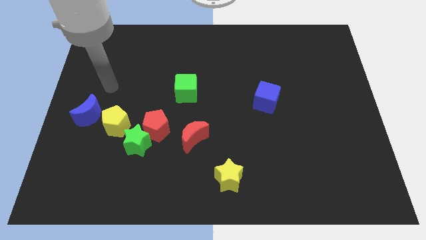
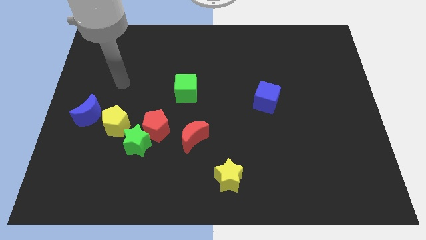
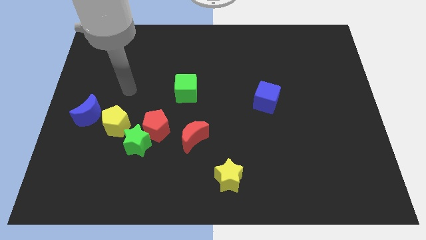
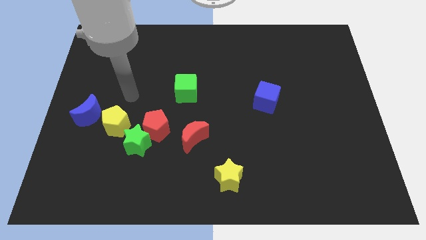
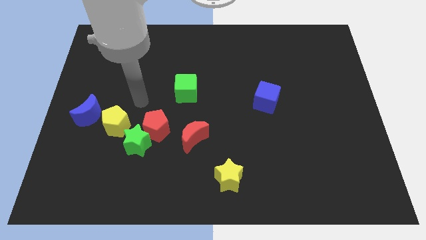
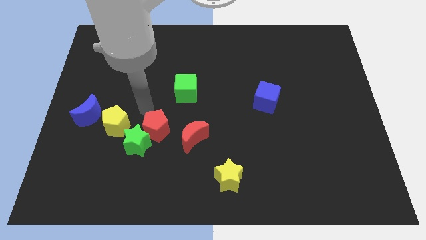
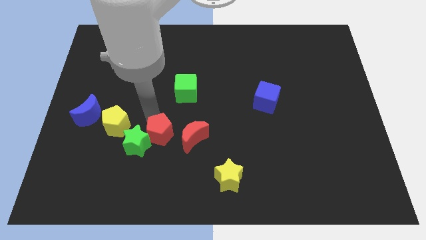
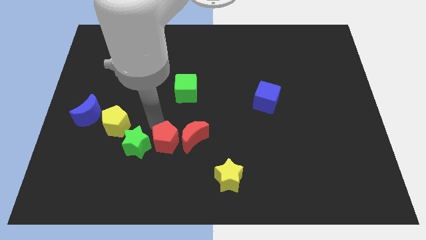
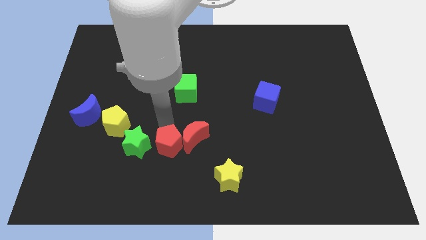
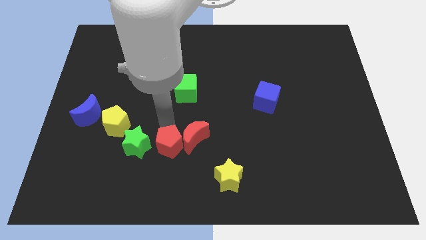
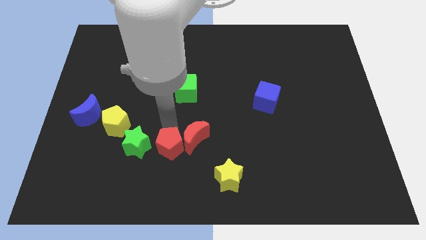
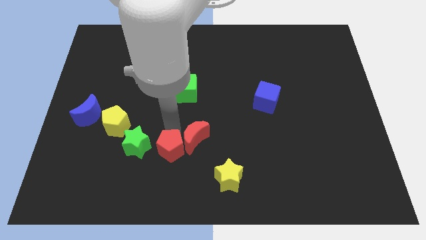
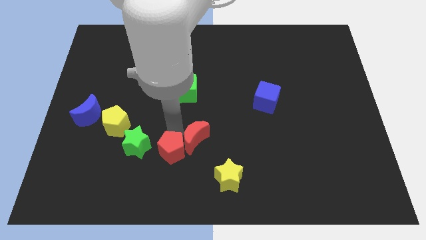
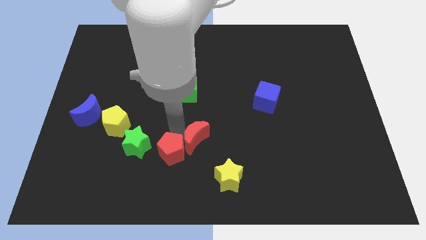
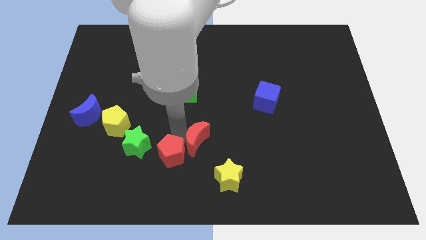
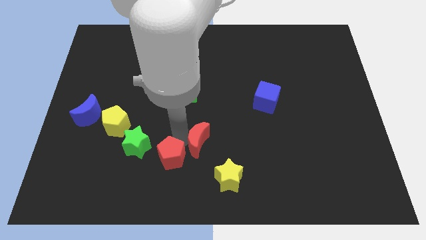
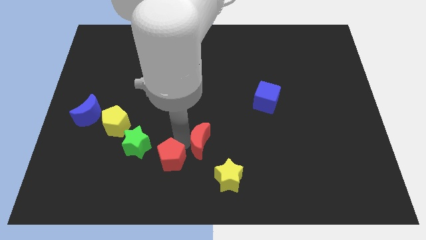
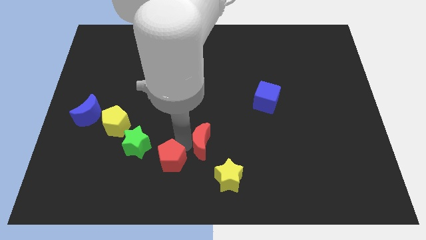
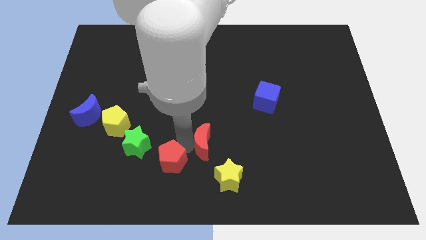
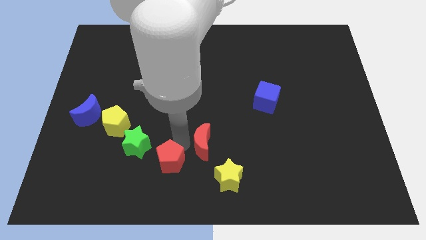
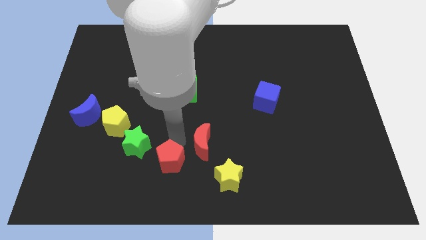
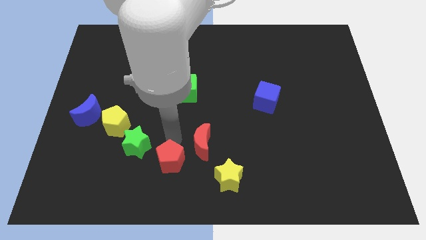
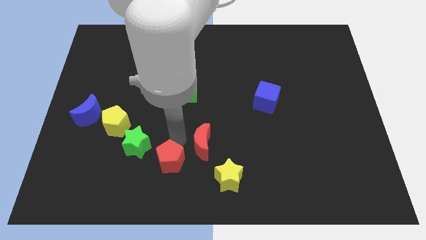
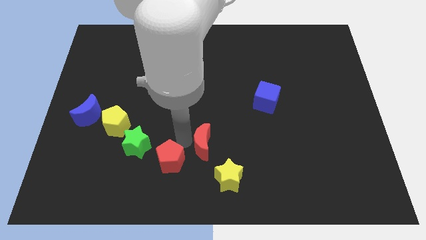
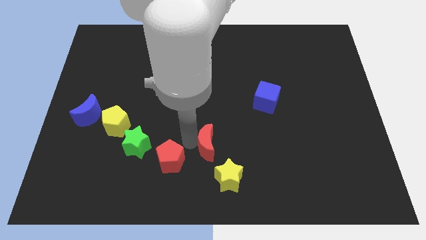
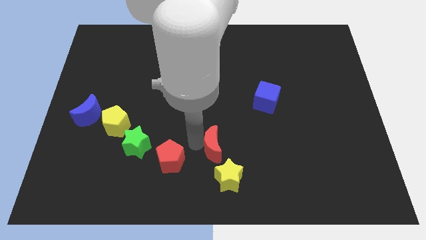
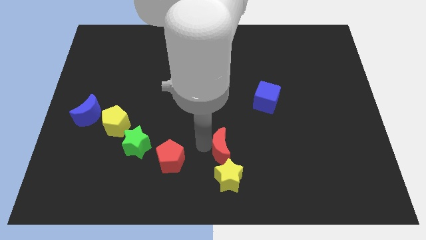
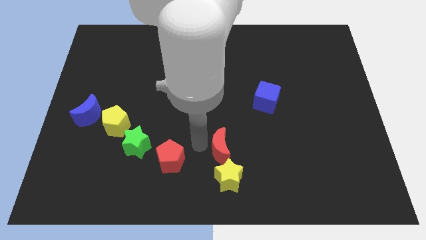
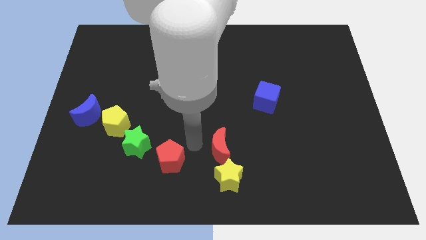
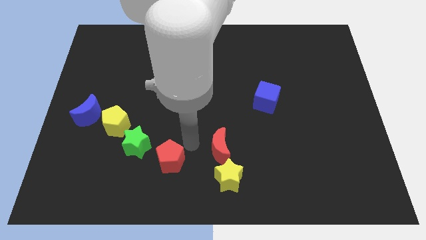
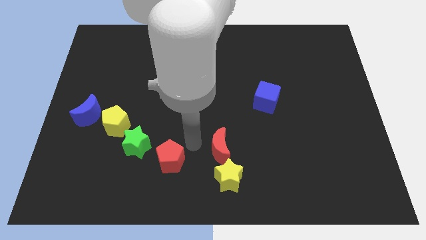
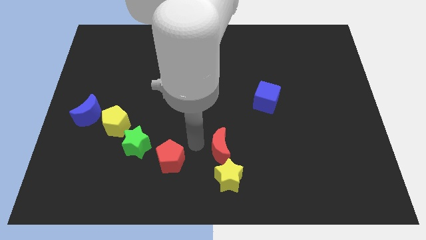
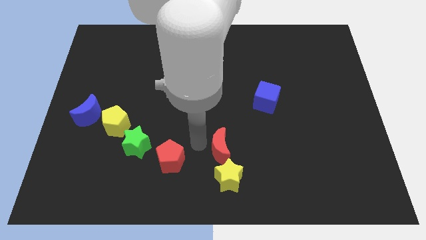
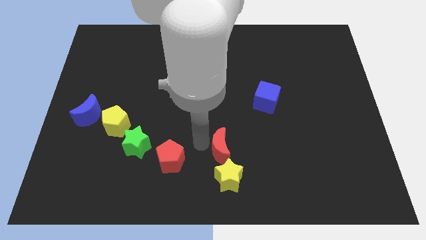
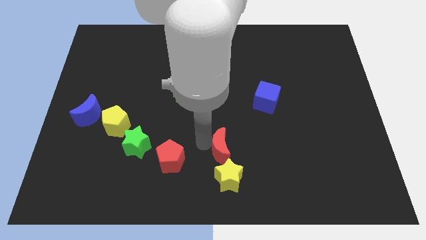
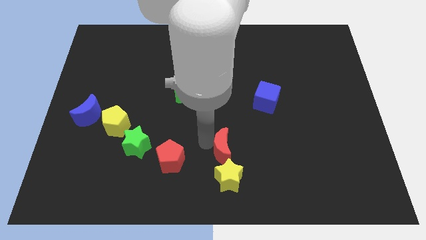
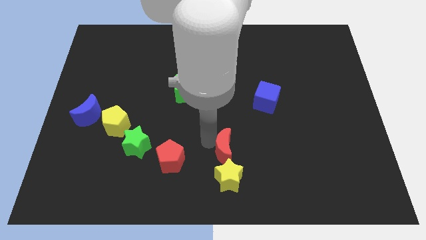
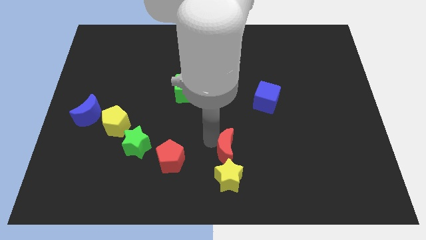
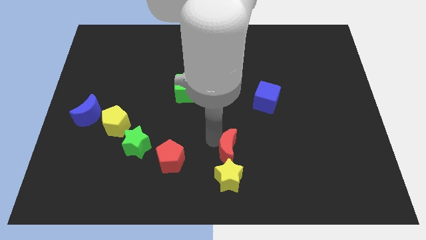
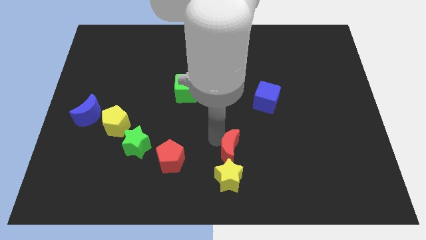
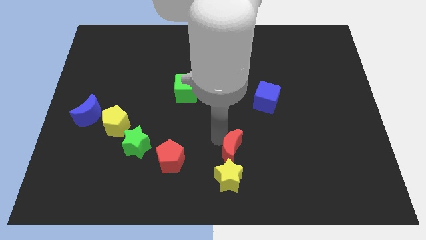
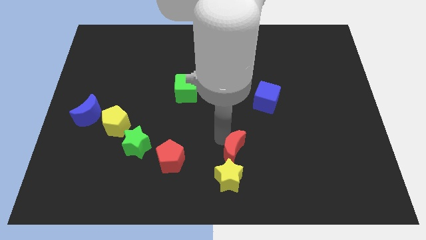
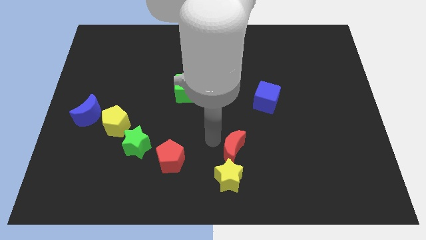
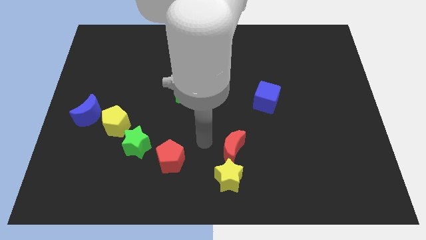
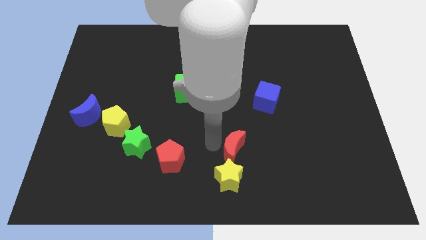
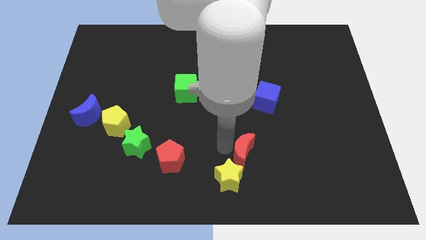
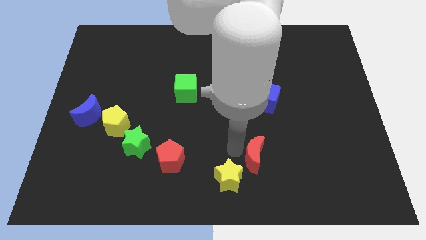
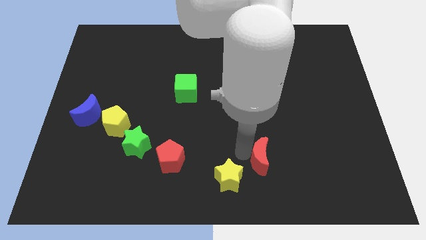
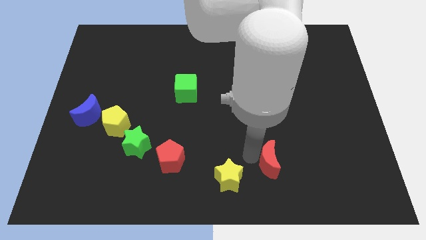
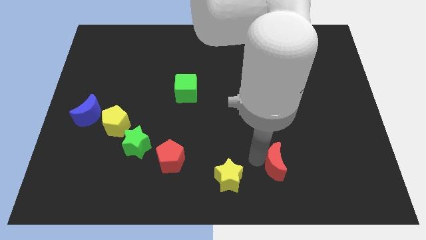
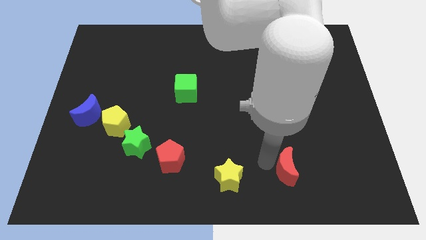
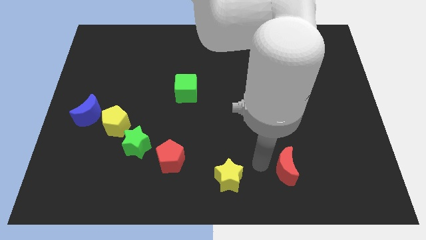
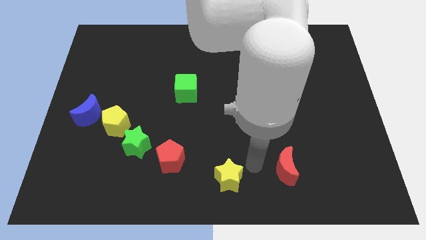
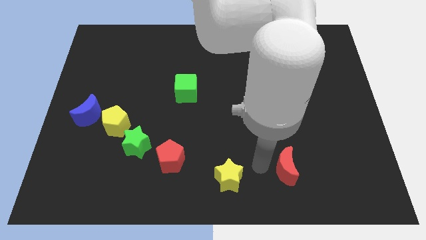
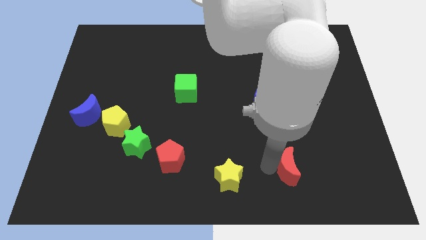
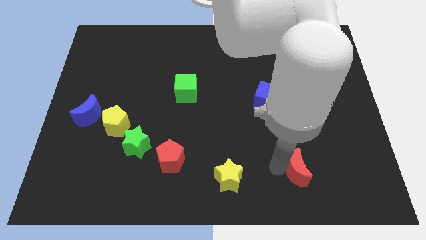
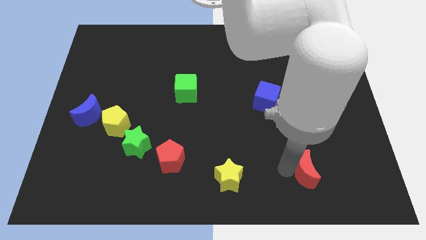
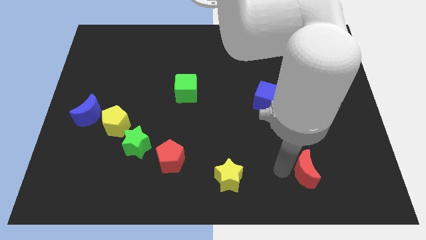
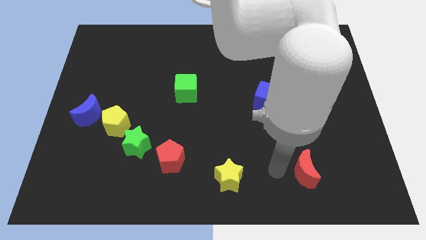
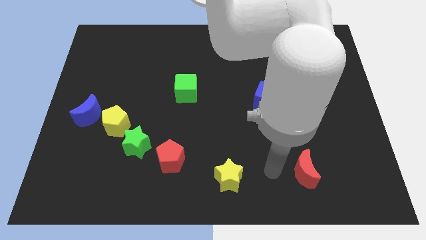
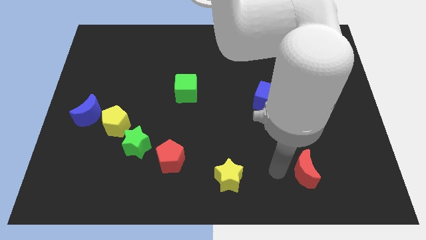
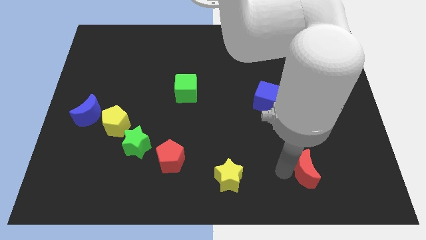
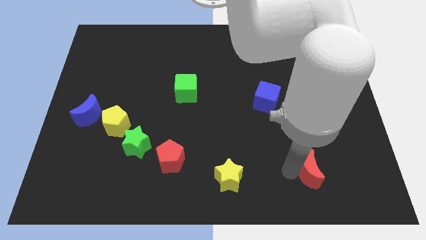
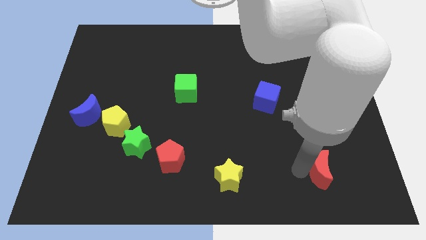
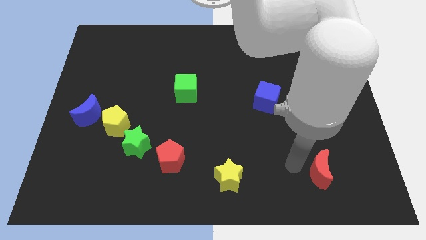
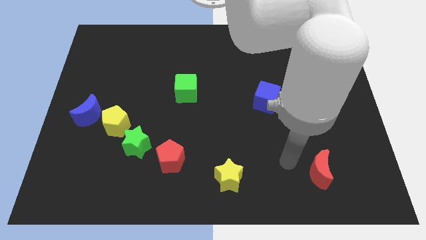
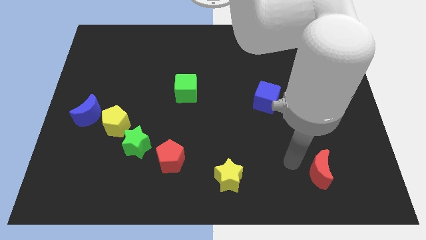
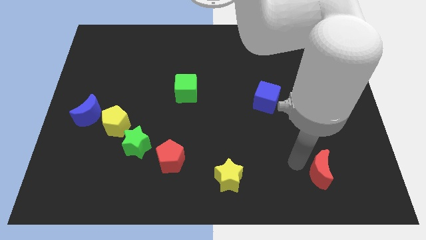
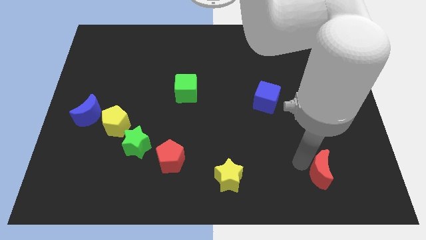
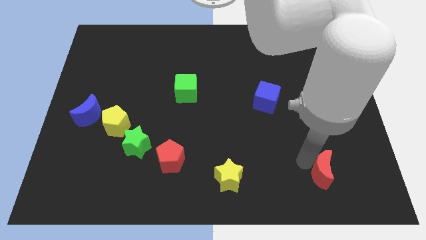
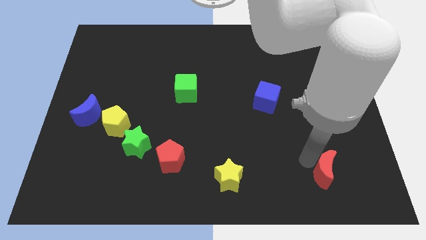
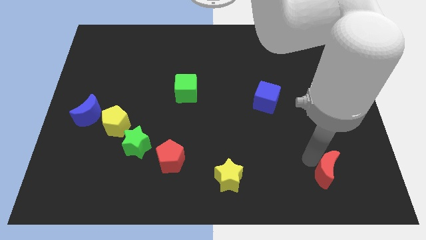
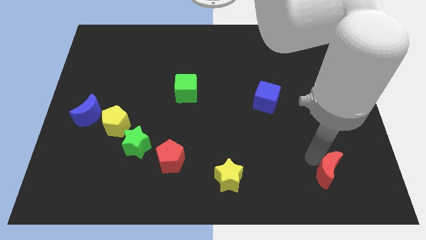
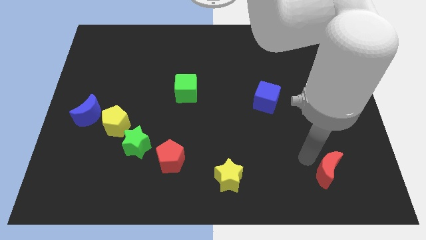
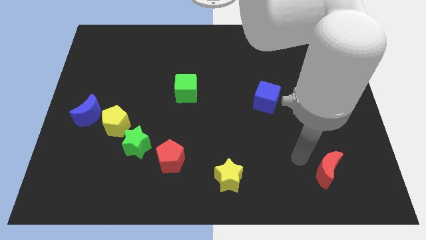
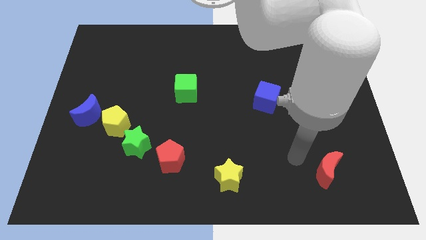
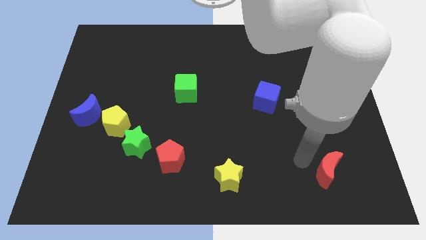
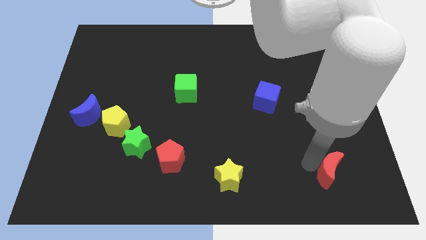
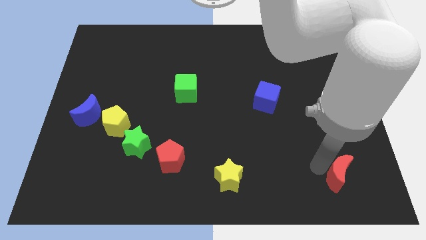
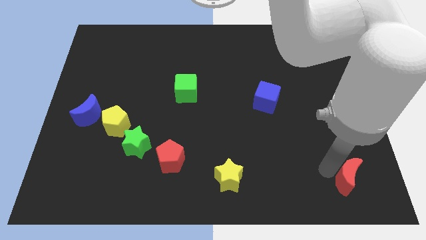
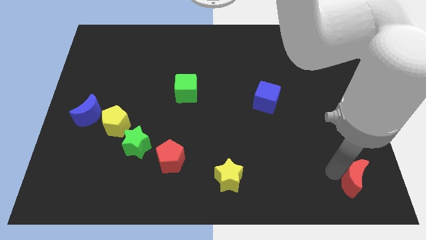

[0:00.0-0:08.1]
put the red moon to the lower right corner
